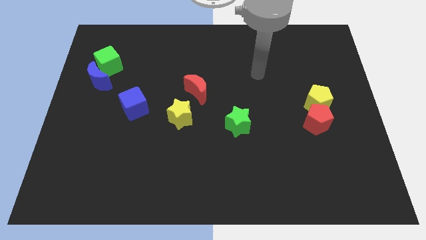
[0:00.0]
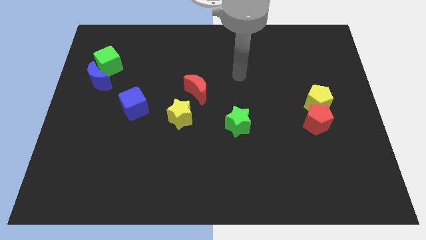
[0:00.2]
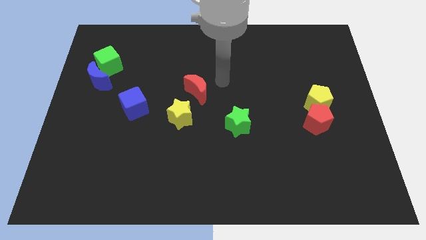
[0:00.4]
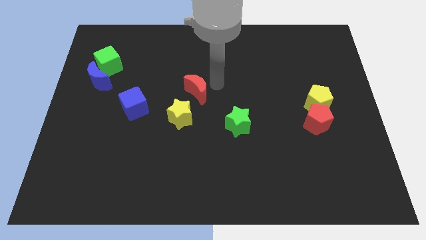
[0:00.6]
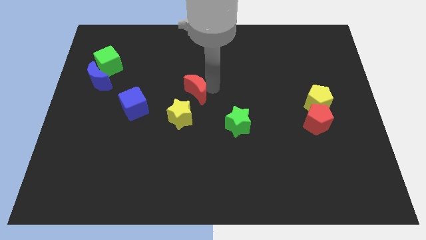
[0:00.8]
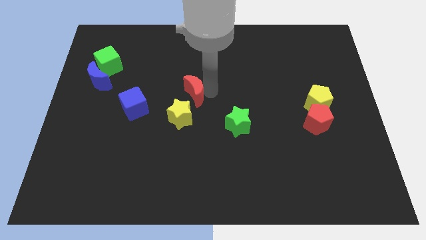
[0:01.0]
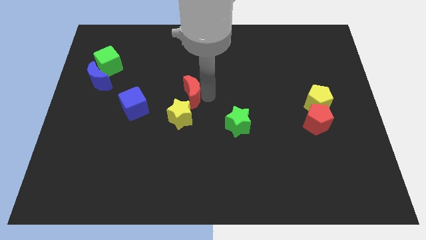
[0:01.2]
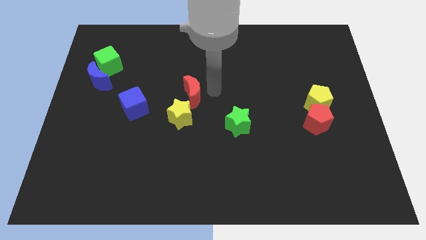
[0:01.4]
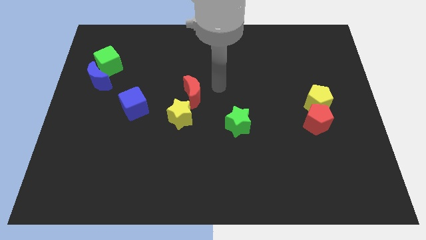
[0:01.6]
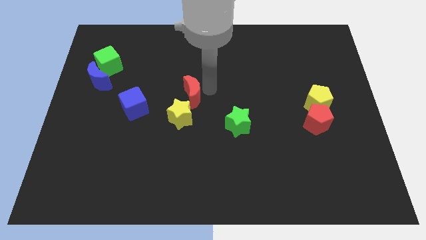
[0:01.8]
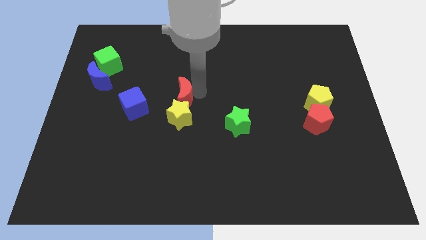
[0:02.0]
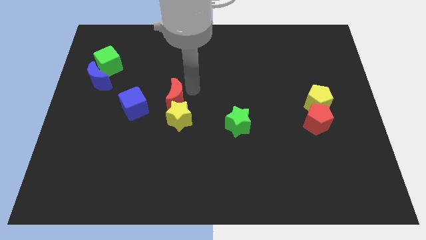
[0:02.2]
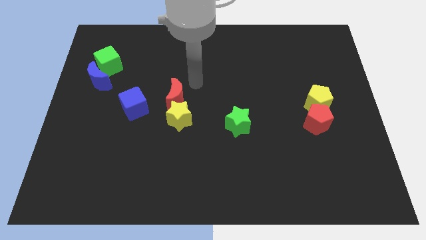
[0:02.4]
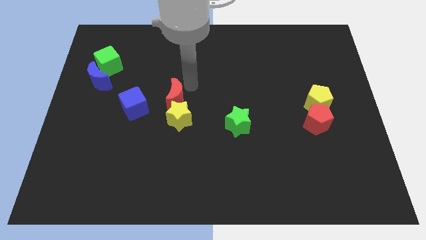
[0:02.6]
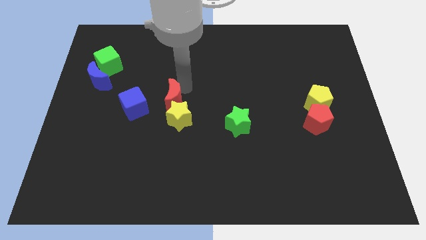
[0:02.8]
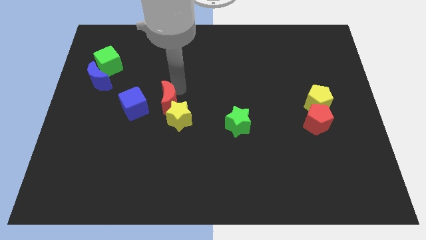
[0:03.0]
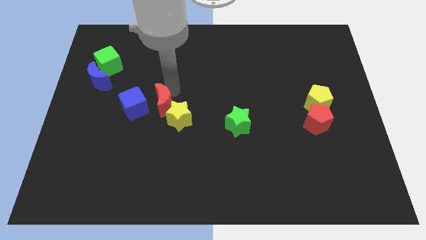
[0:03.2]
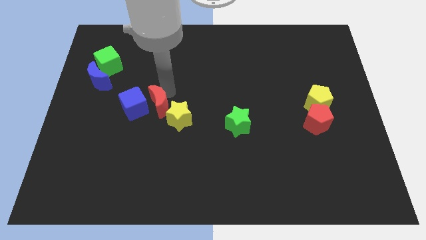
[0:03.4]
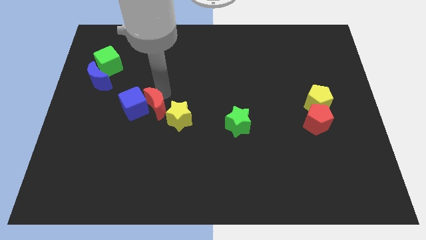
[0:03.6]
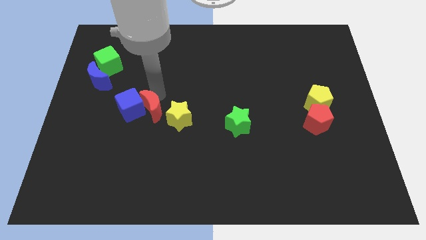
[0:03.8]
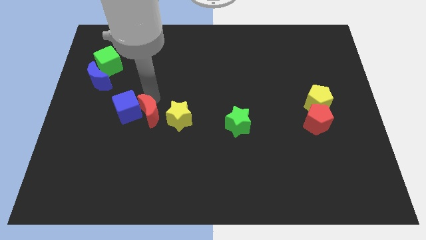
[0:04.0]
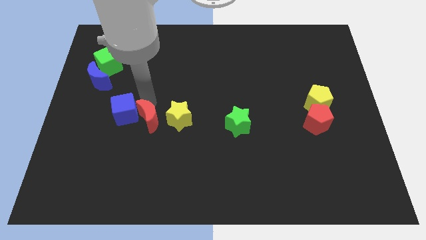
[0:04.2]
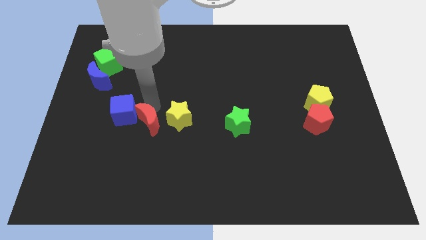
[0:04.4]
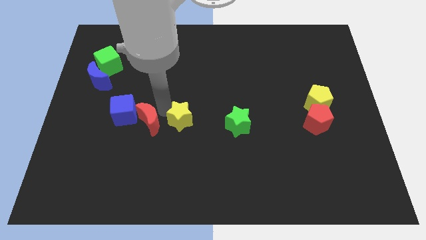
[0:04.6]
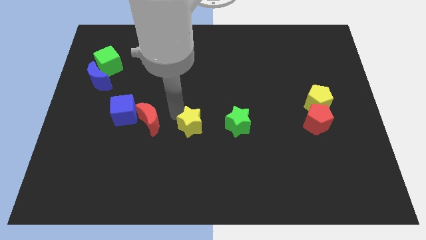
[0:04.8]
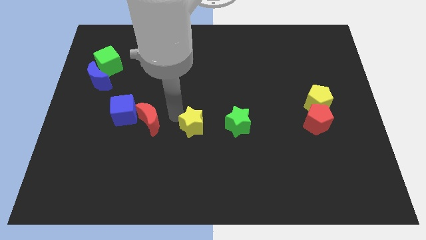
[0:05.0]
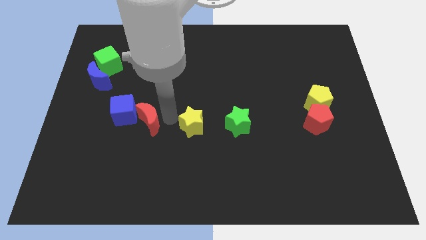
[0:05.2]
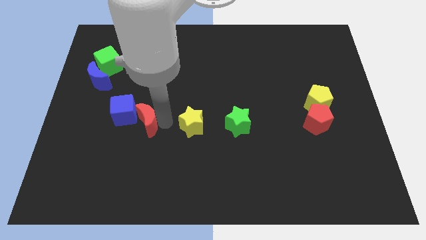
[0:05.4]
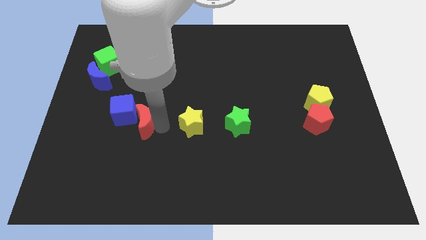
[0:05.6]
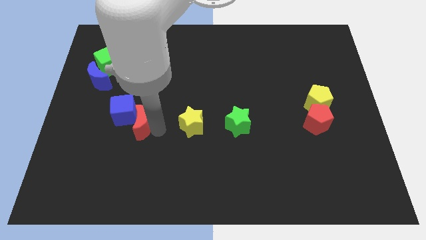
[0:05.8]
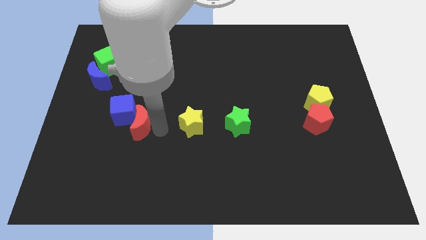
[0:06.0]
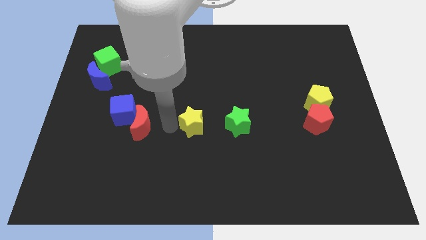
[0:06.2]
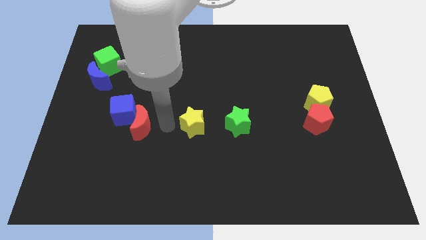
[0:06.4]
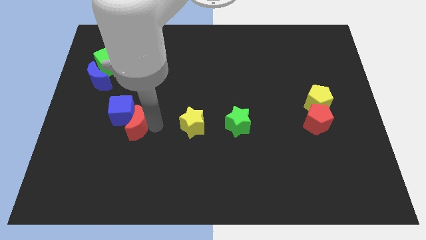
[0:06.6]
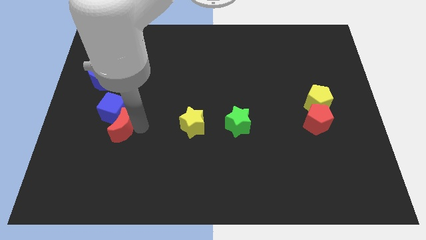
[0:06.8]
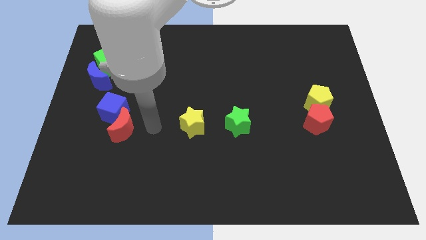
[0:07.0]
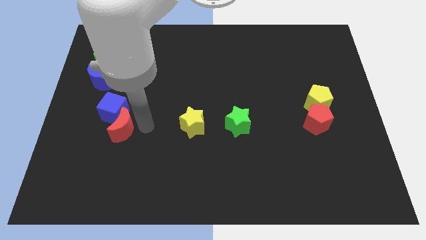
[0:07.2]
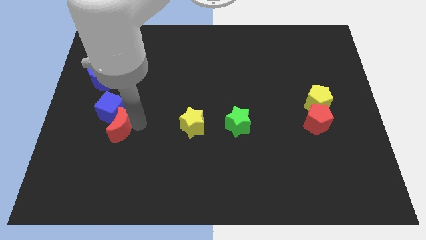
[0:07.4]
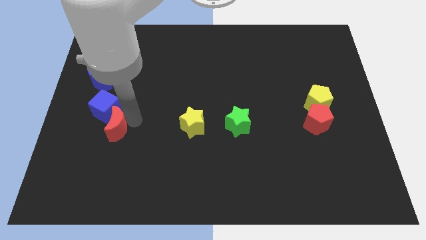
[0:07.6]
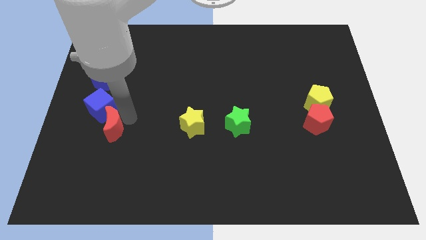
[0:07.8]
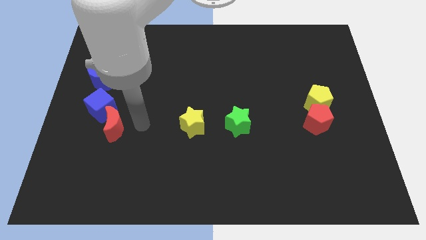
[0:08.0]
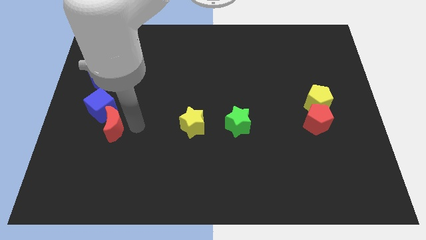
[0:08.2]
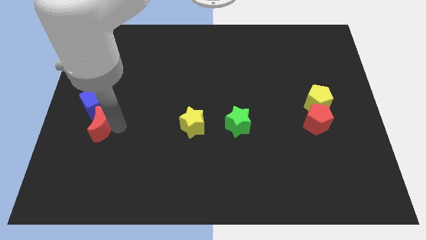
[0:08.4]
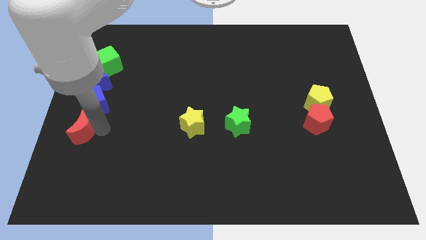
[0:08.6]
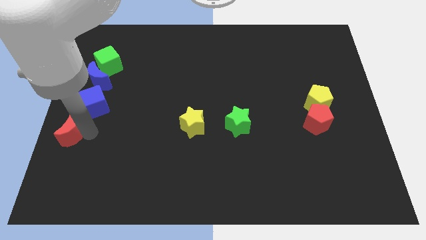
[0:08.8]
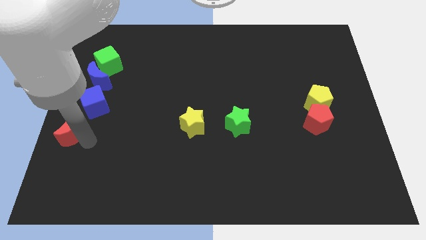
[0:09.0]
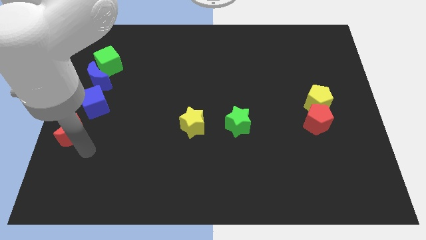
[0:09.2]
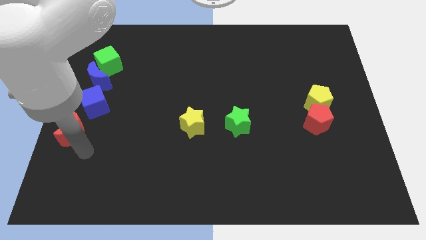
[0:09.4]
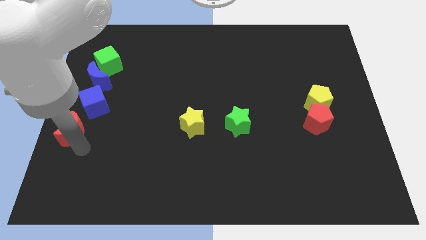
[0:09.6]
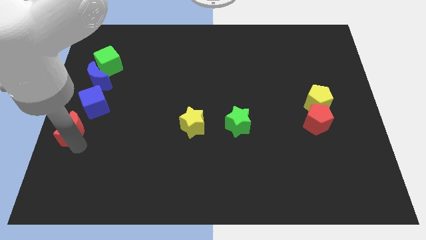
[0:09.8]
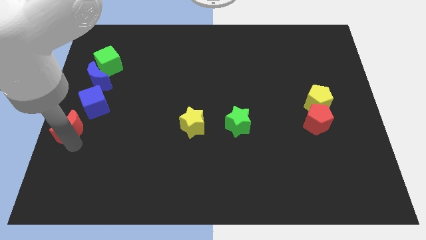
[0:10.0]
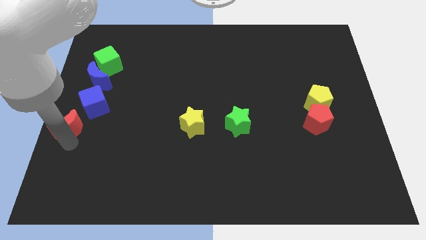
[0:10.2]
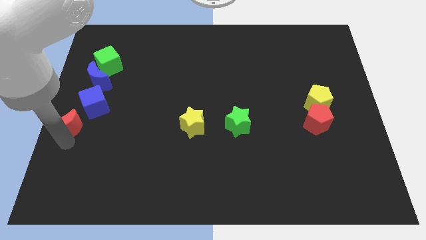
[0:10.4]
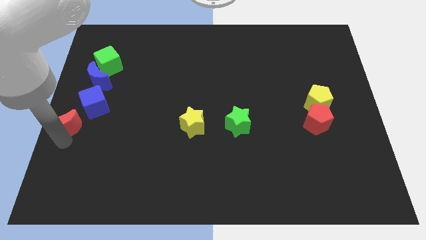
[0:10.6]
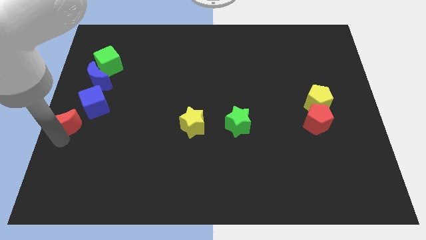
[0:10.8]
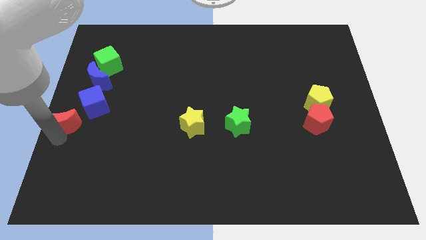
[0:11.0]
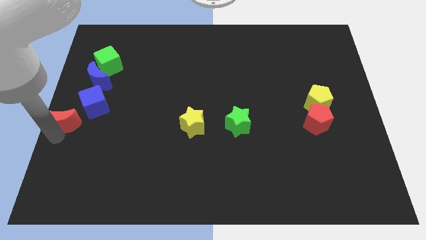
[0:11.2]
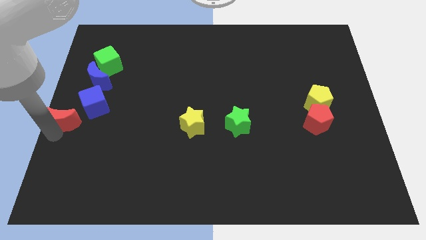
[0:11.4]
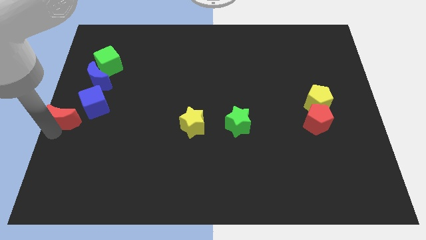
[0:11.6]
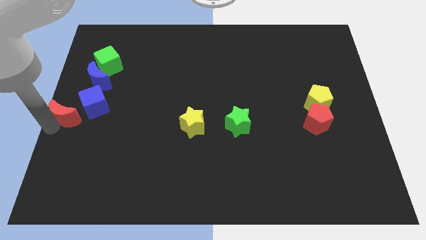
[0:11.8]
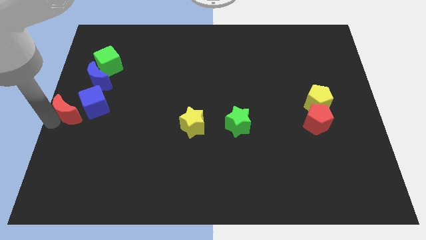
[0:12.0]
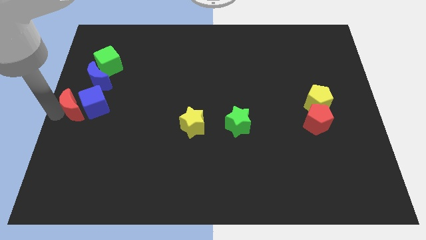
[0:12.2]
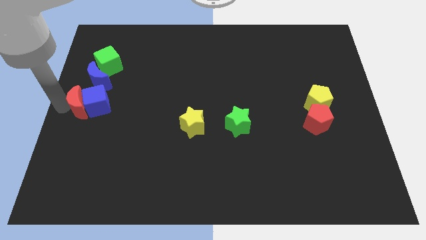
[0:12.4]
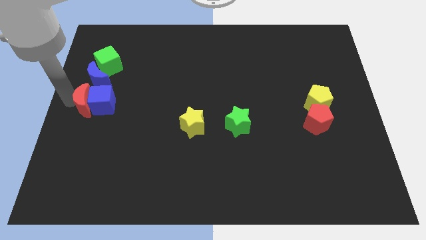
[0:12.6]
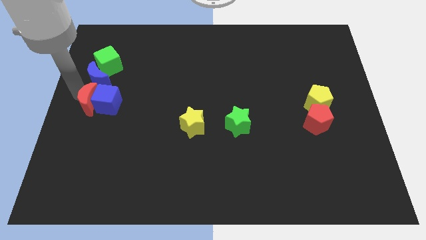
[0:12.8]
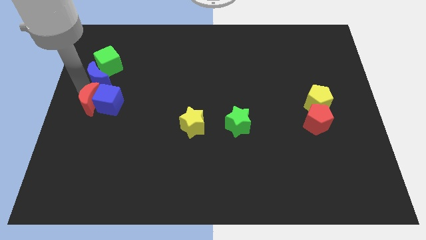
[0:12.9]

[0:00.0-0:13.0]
put the red moon to the bottom left side of the blue cube

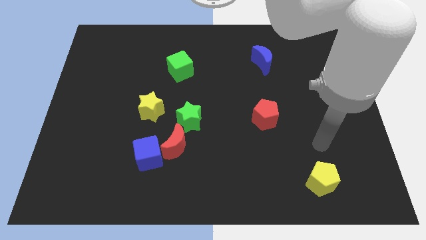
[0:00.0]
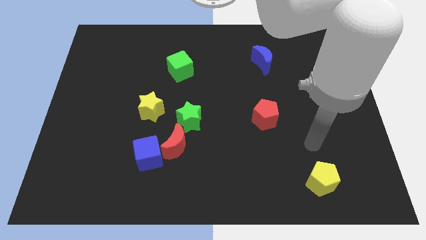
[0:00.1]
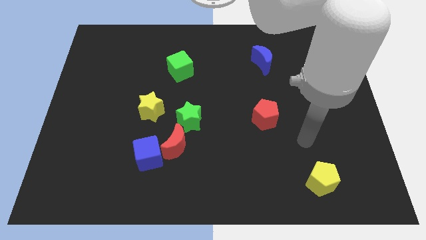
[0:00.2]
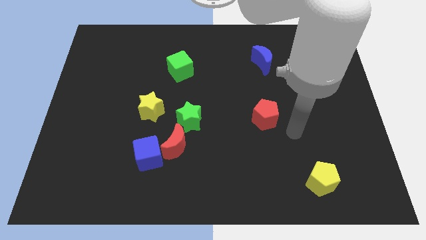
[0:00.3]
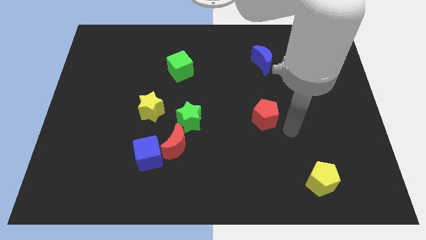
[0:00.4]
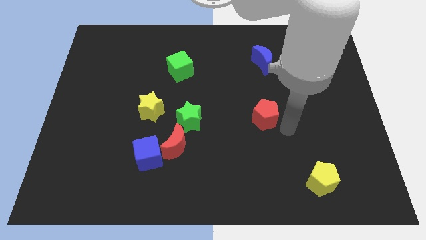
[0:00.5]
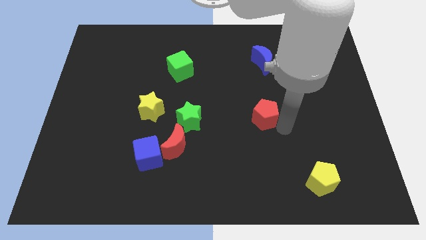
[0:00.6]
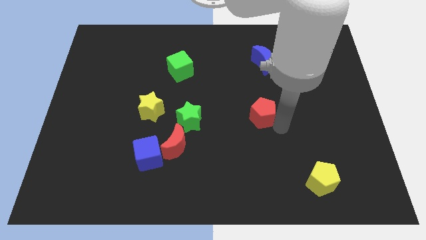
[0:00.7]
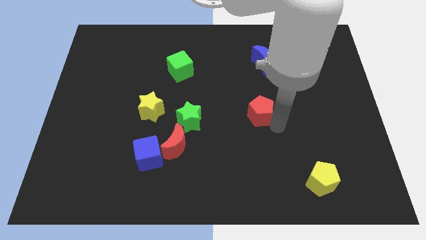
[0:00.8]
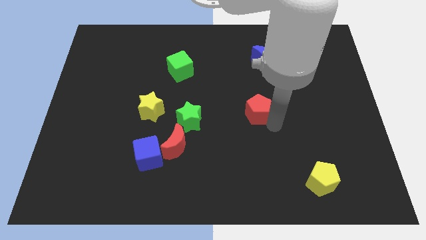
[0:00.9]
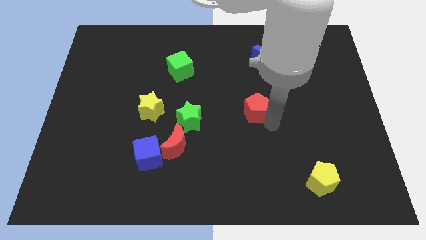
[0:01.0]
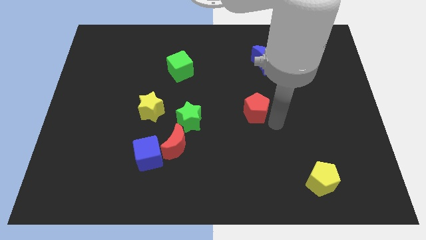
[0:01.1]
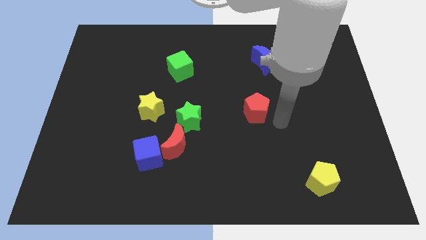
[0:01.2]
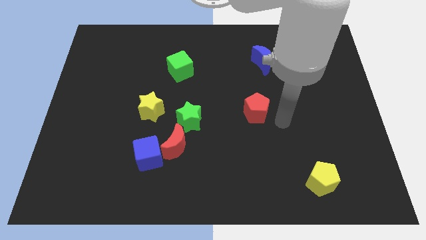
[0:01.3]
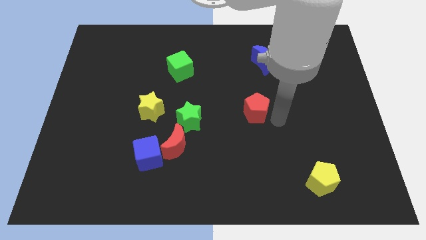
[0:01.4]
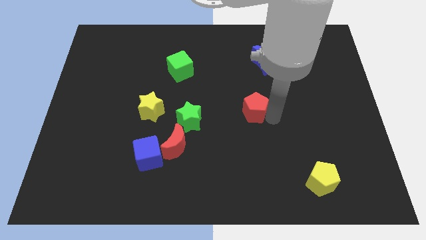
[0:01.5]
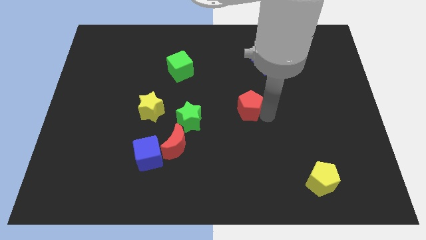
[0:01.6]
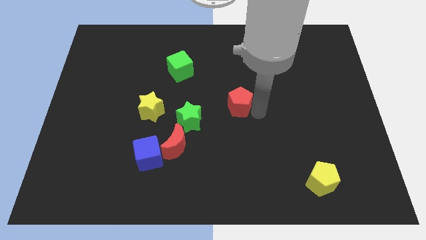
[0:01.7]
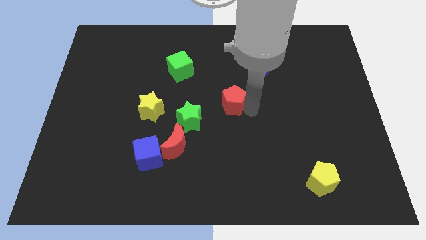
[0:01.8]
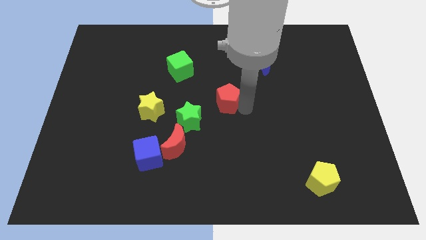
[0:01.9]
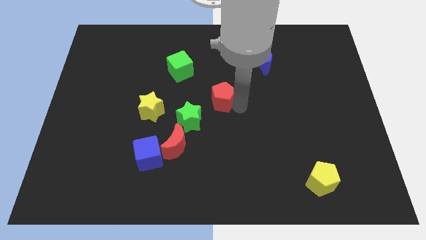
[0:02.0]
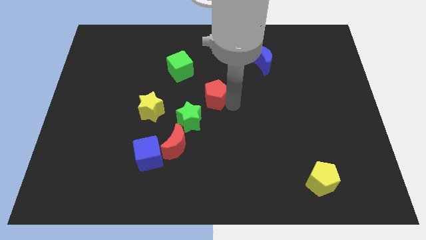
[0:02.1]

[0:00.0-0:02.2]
move the red pentagon diagonally down and to the right of the green cube
